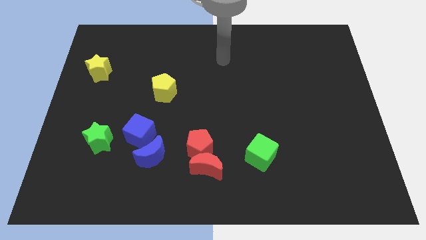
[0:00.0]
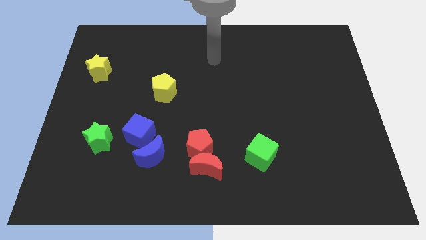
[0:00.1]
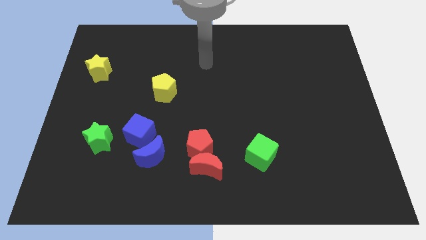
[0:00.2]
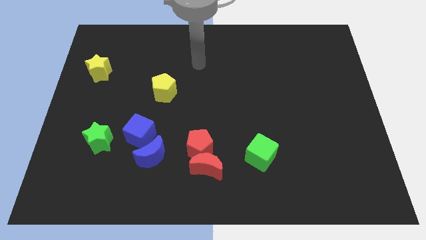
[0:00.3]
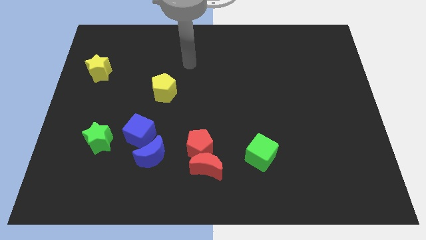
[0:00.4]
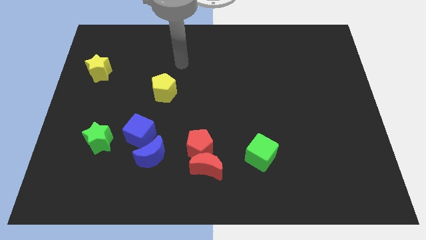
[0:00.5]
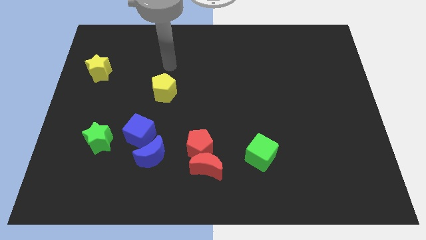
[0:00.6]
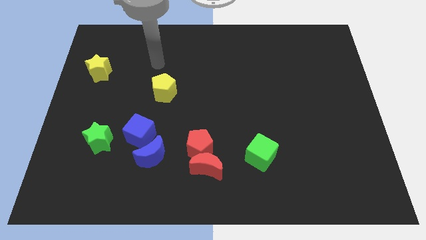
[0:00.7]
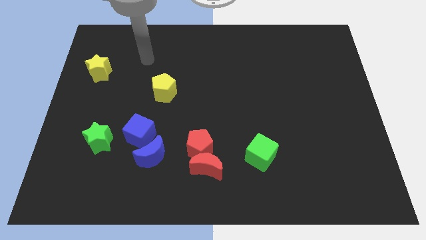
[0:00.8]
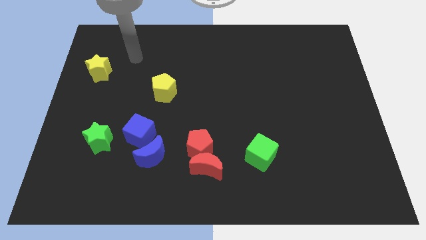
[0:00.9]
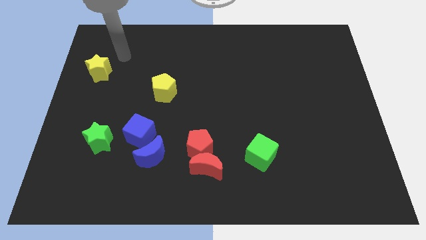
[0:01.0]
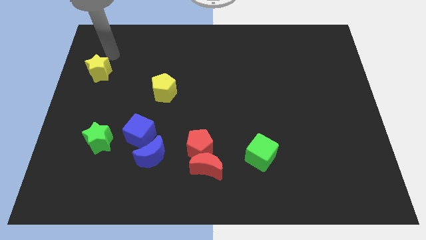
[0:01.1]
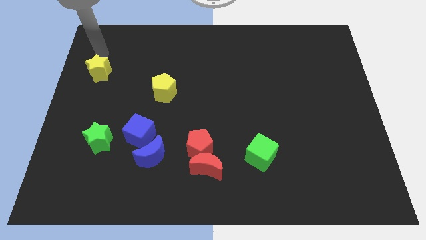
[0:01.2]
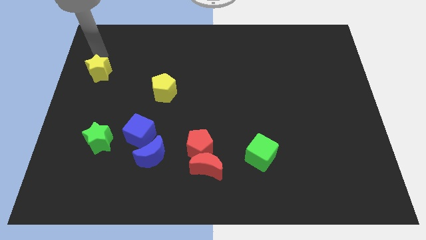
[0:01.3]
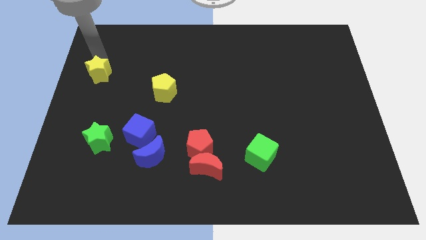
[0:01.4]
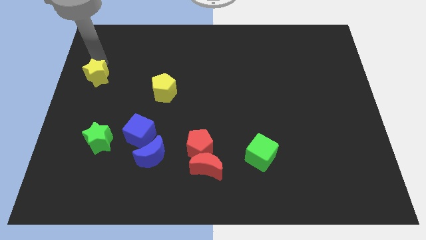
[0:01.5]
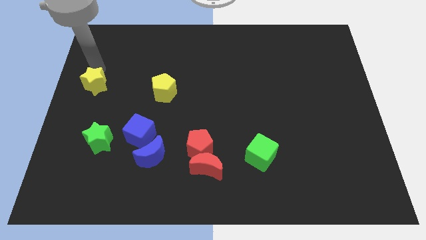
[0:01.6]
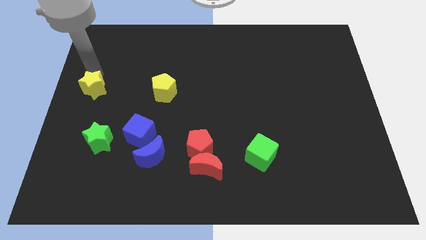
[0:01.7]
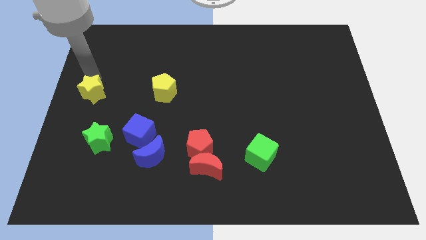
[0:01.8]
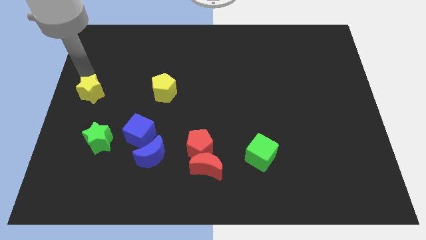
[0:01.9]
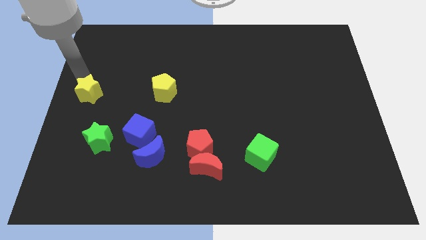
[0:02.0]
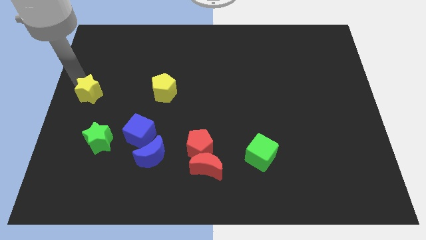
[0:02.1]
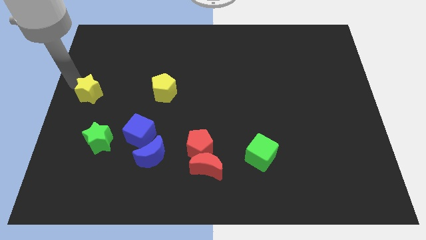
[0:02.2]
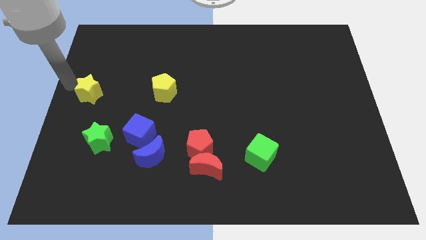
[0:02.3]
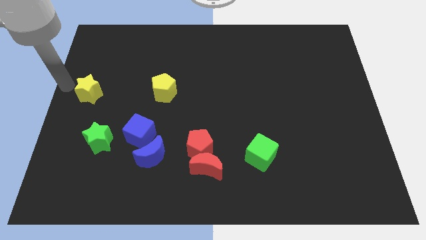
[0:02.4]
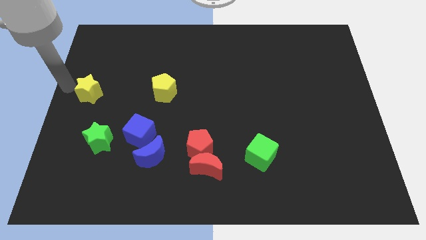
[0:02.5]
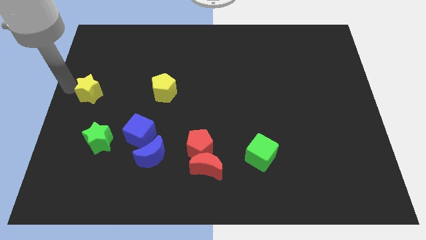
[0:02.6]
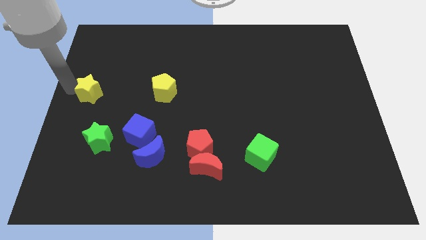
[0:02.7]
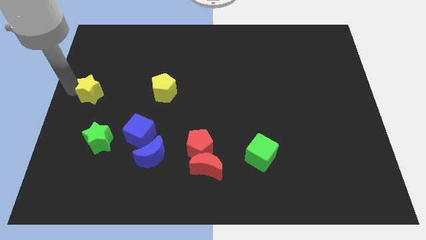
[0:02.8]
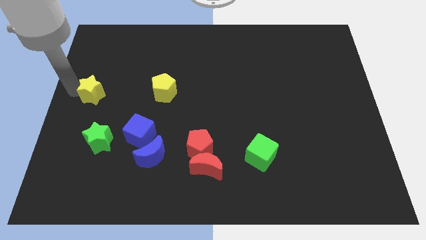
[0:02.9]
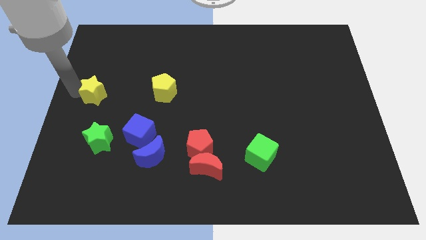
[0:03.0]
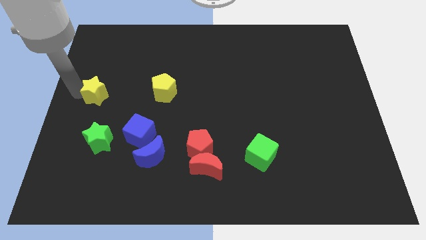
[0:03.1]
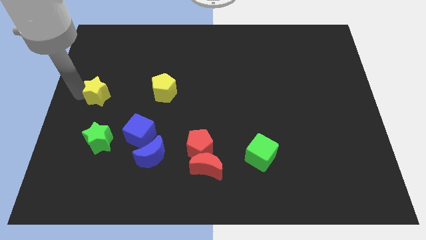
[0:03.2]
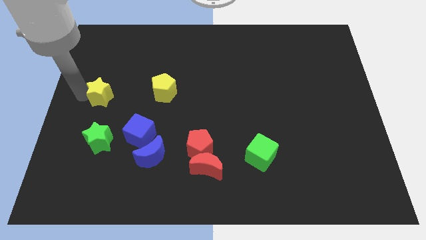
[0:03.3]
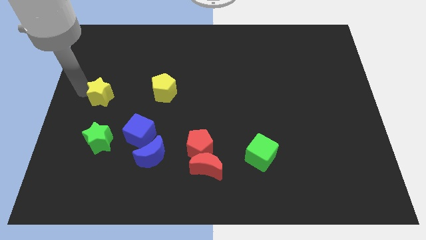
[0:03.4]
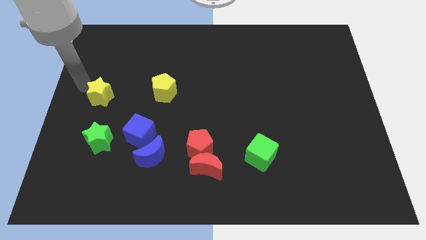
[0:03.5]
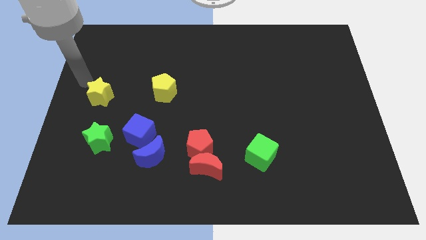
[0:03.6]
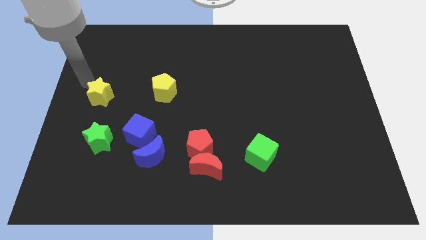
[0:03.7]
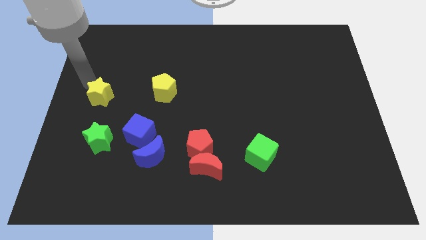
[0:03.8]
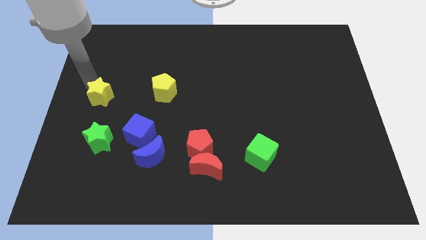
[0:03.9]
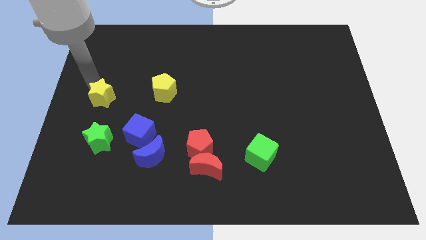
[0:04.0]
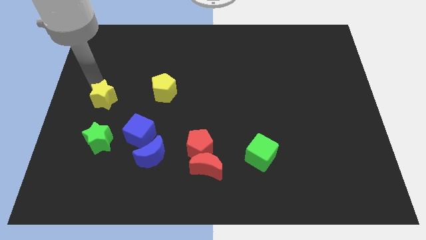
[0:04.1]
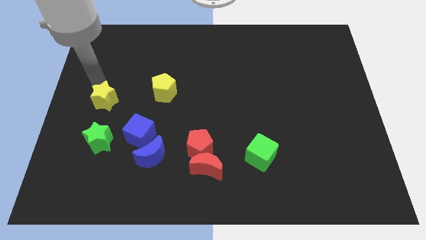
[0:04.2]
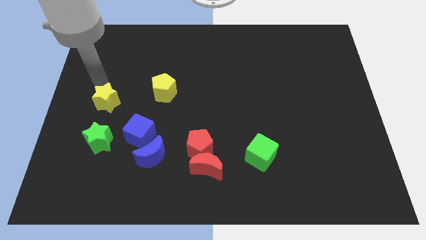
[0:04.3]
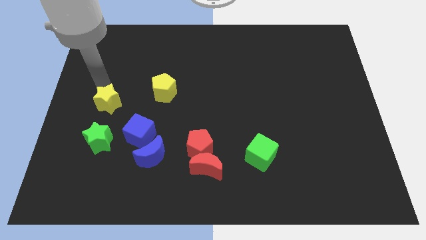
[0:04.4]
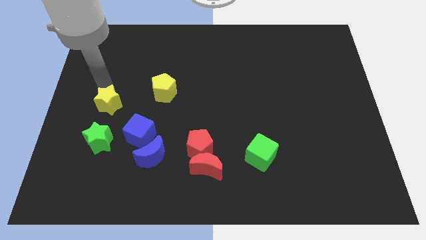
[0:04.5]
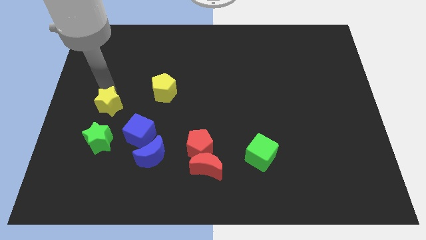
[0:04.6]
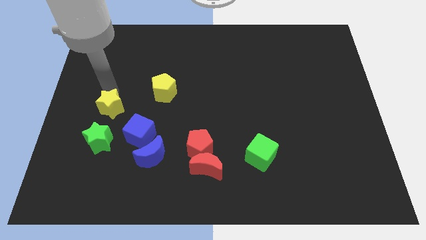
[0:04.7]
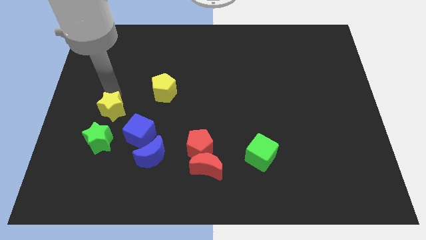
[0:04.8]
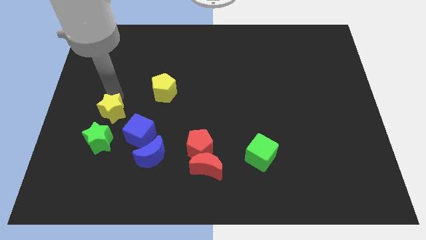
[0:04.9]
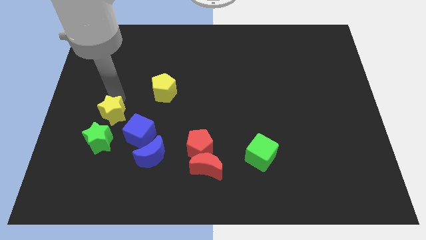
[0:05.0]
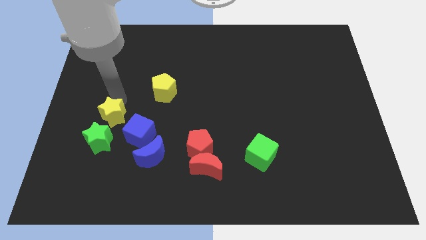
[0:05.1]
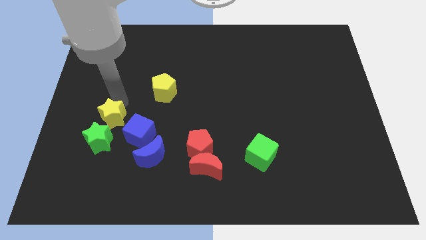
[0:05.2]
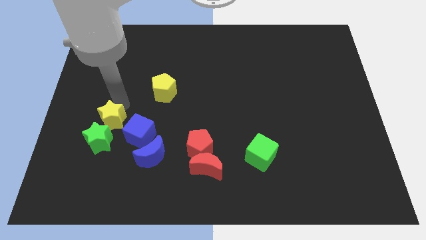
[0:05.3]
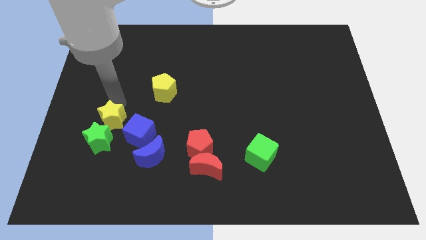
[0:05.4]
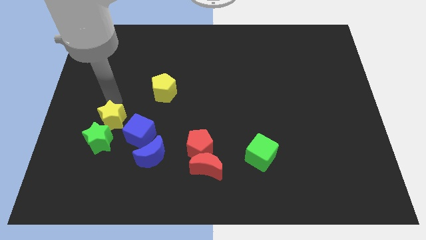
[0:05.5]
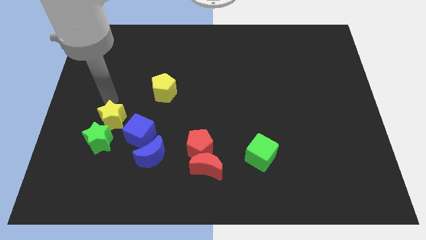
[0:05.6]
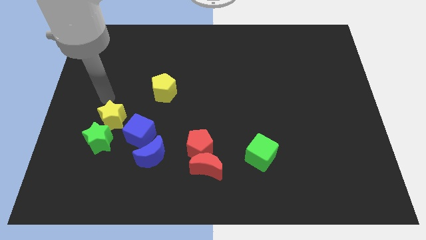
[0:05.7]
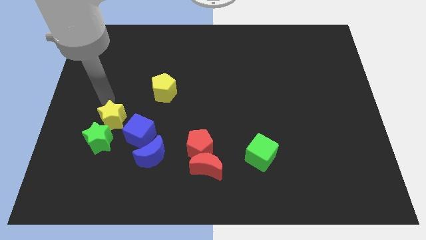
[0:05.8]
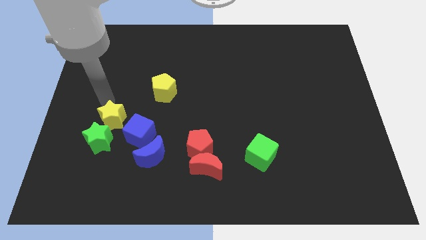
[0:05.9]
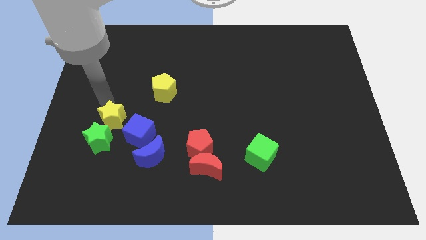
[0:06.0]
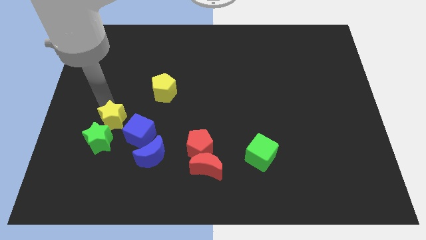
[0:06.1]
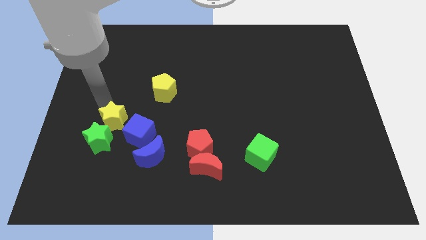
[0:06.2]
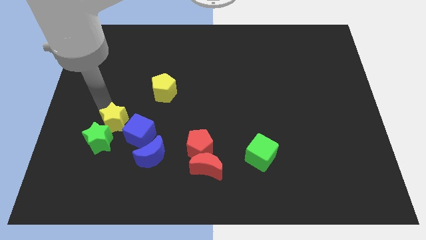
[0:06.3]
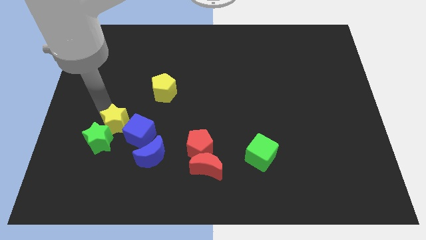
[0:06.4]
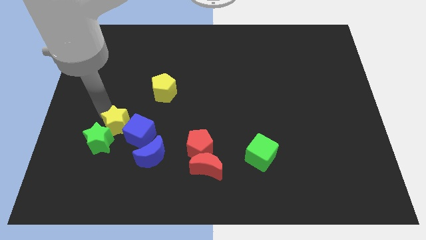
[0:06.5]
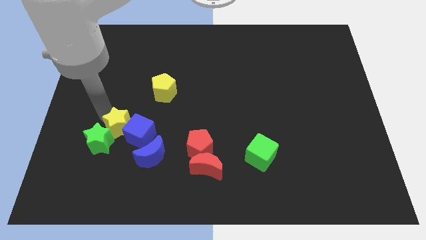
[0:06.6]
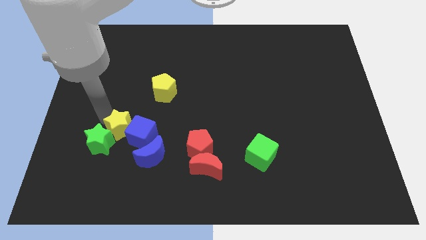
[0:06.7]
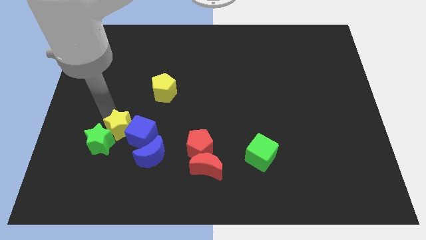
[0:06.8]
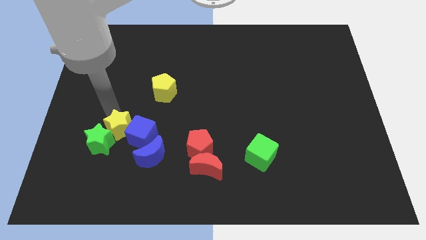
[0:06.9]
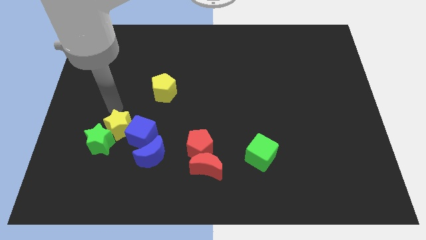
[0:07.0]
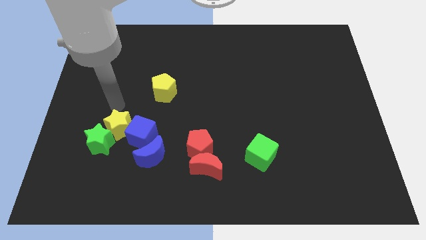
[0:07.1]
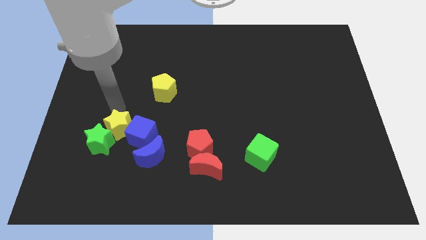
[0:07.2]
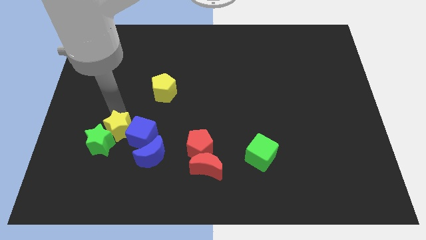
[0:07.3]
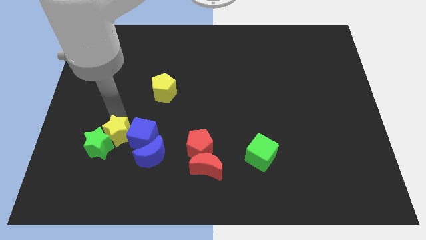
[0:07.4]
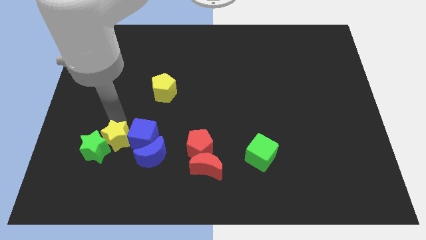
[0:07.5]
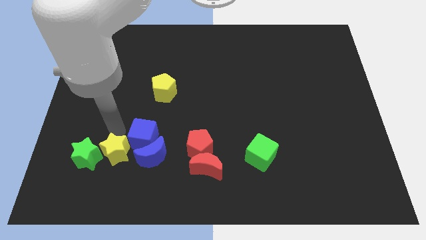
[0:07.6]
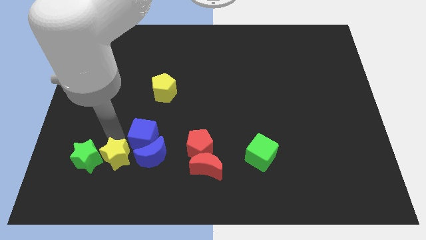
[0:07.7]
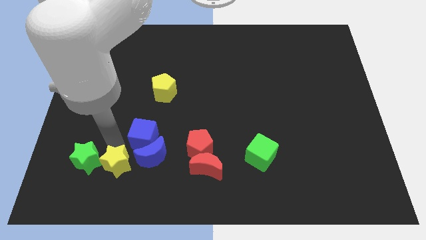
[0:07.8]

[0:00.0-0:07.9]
push the yellow star to the bottom left side of the blue moon
